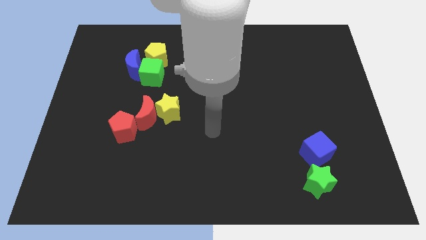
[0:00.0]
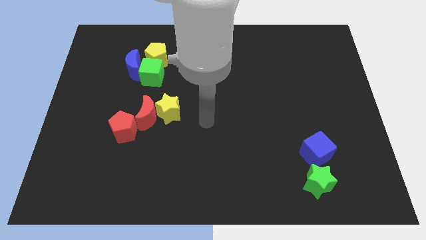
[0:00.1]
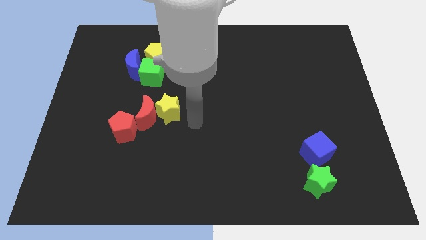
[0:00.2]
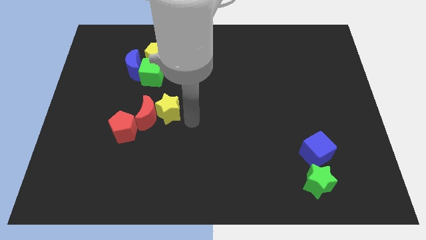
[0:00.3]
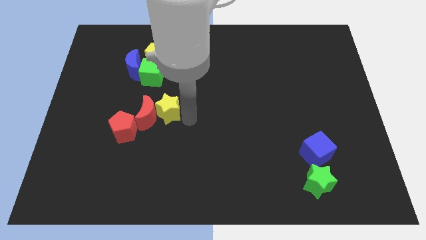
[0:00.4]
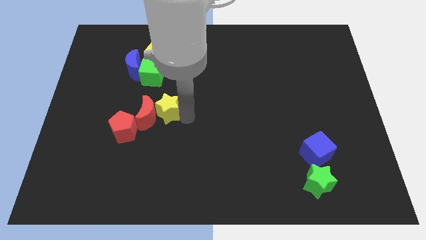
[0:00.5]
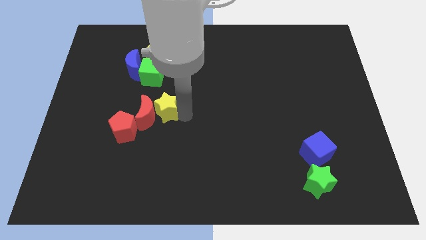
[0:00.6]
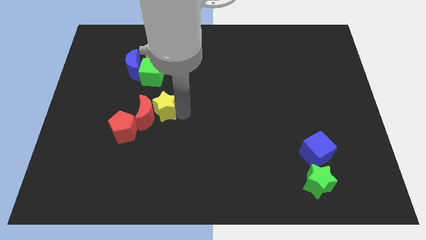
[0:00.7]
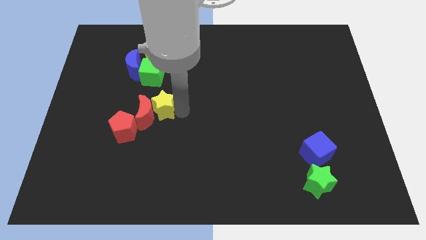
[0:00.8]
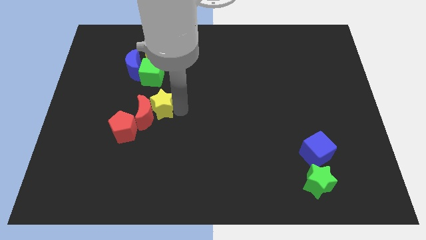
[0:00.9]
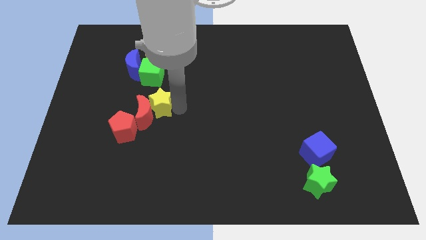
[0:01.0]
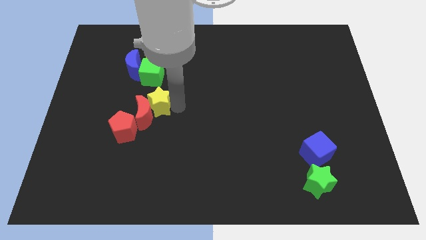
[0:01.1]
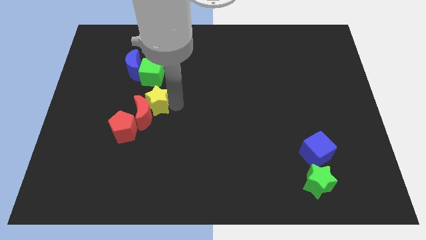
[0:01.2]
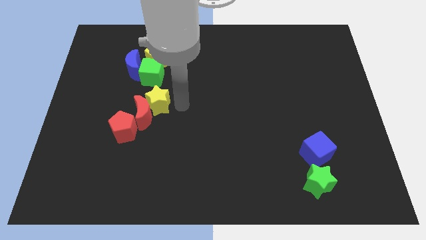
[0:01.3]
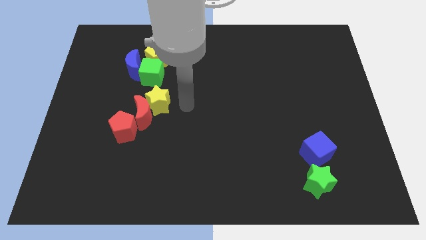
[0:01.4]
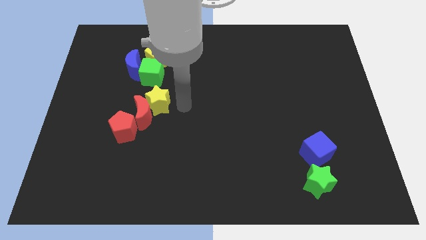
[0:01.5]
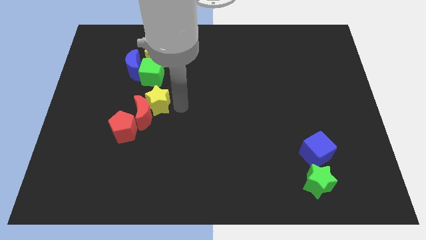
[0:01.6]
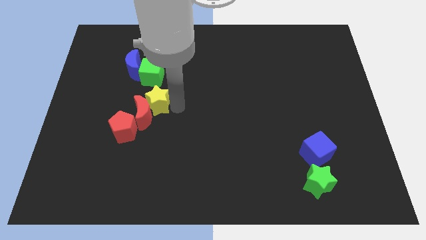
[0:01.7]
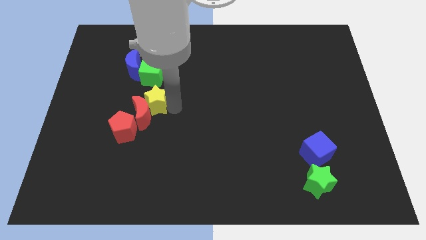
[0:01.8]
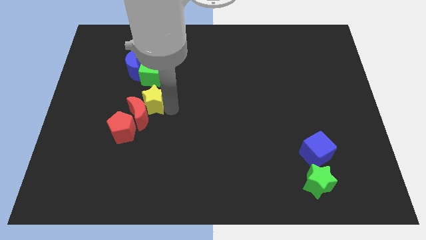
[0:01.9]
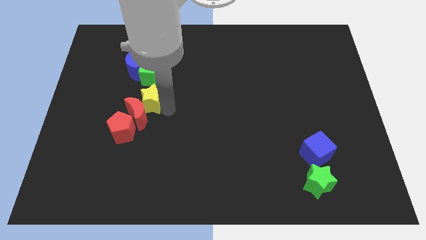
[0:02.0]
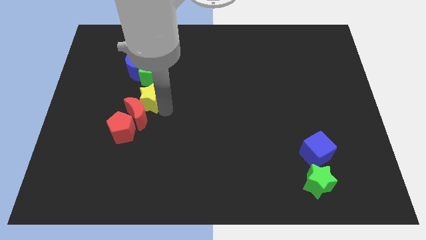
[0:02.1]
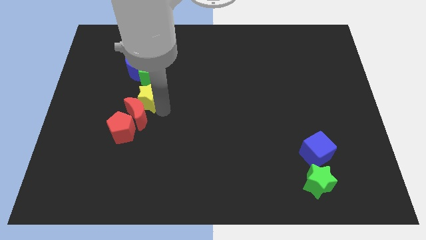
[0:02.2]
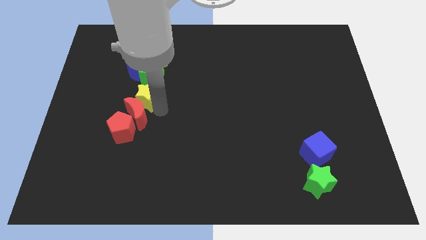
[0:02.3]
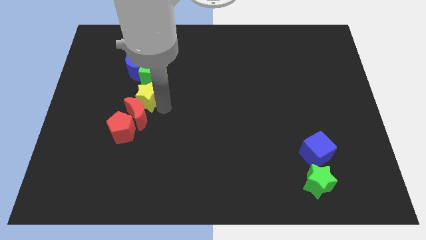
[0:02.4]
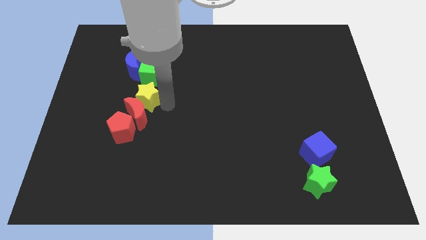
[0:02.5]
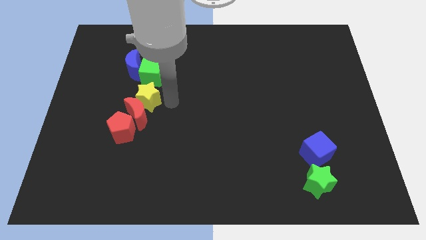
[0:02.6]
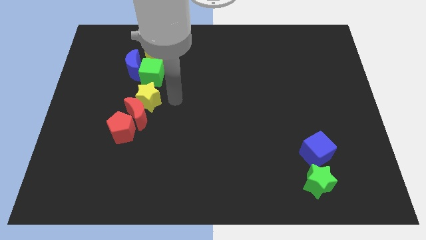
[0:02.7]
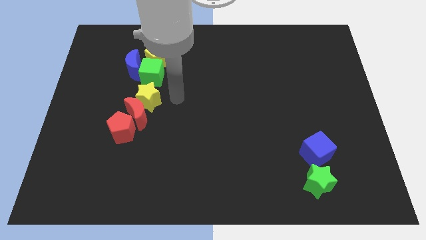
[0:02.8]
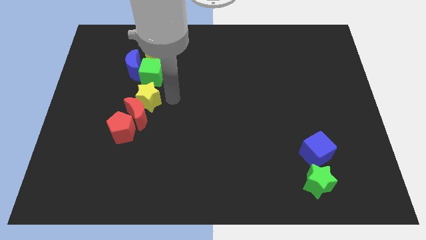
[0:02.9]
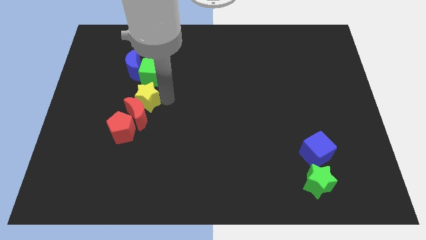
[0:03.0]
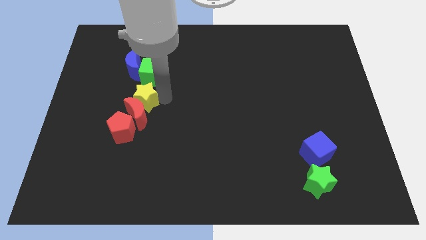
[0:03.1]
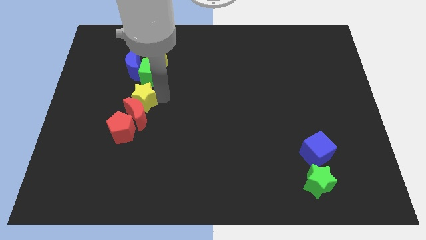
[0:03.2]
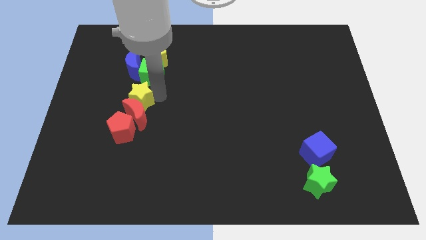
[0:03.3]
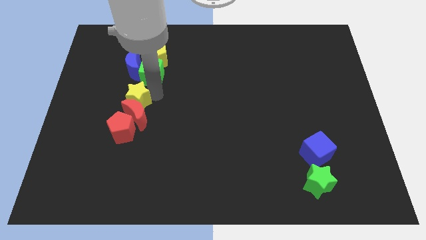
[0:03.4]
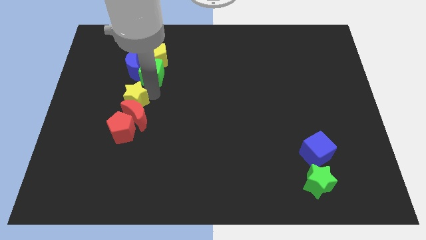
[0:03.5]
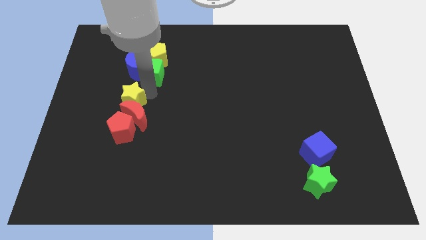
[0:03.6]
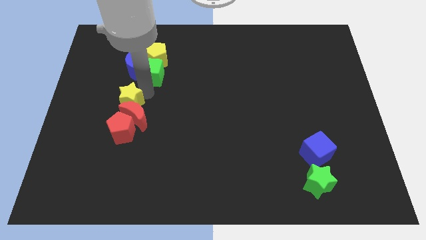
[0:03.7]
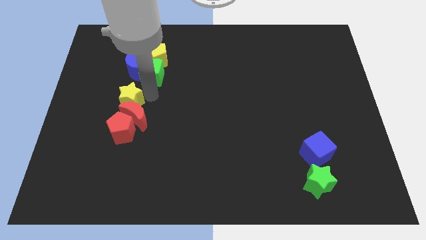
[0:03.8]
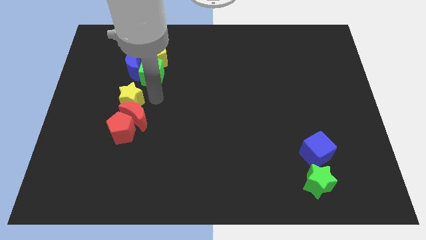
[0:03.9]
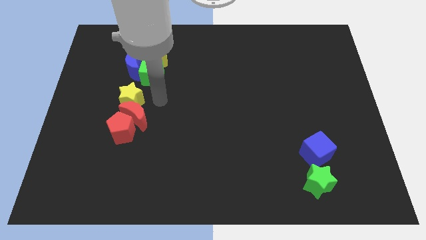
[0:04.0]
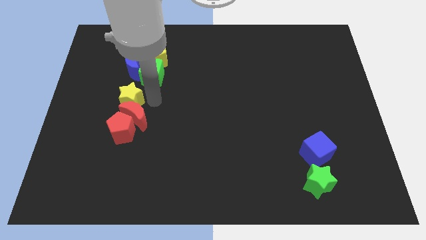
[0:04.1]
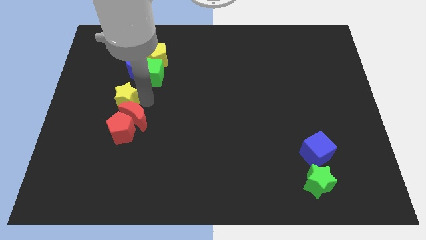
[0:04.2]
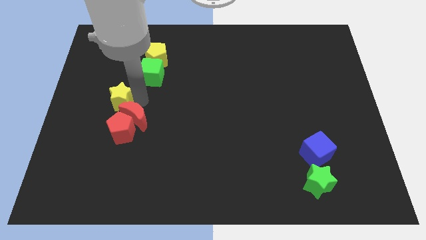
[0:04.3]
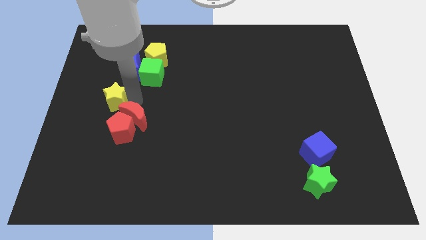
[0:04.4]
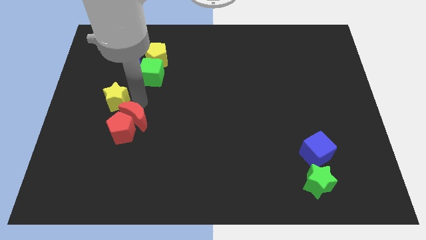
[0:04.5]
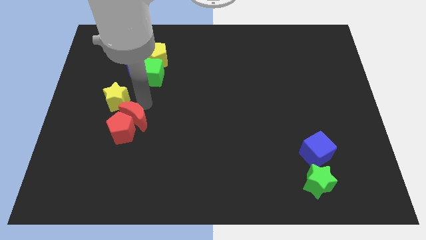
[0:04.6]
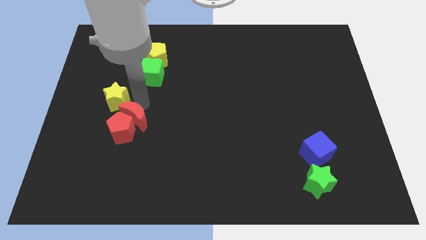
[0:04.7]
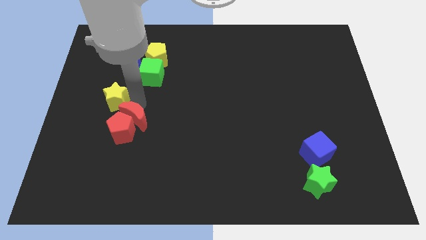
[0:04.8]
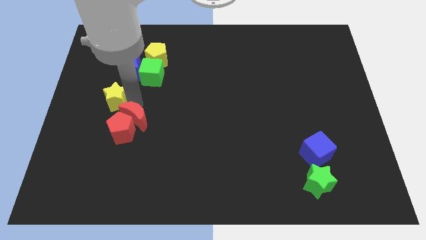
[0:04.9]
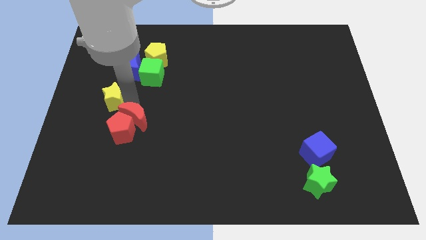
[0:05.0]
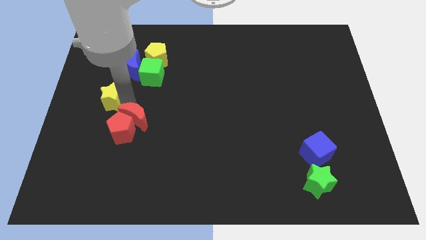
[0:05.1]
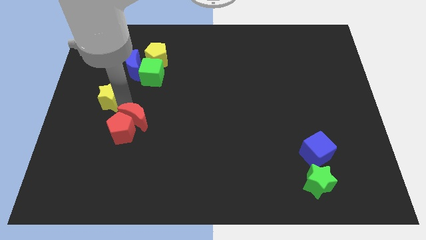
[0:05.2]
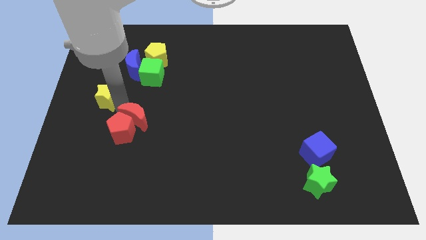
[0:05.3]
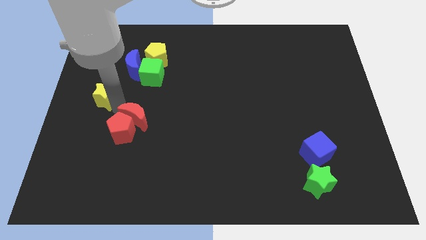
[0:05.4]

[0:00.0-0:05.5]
push the yellow star to the left side of the board

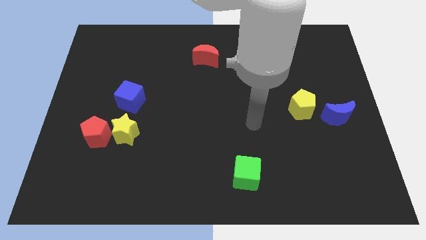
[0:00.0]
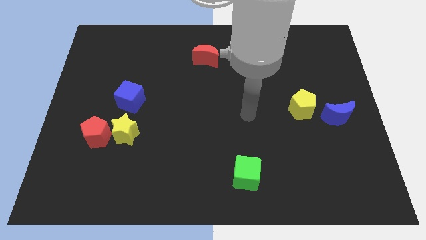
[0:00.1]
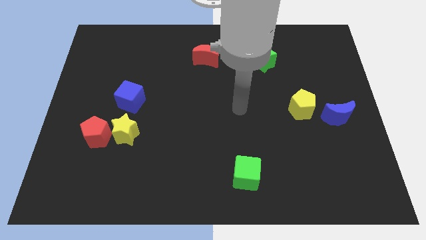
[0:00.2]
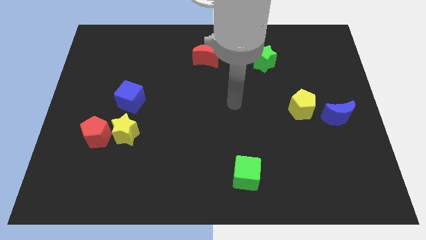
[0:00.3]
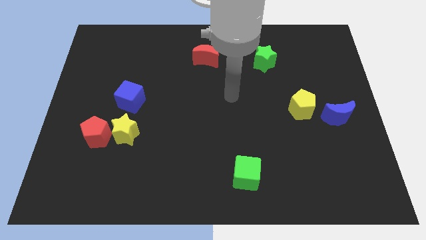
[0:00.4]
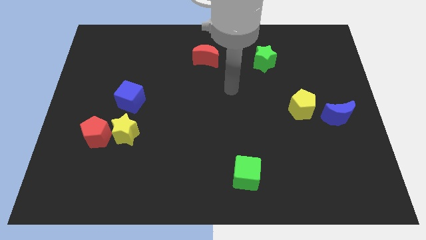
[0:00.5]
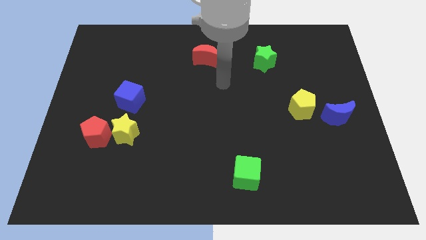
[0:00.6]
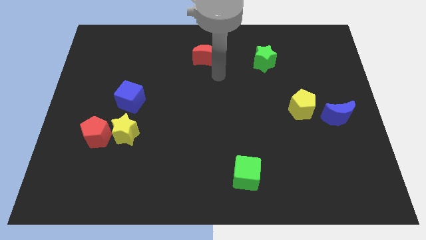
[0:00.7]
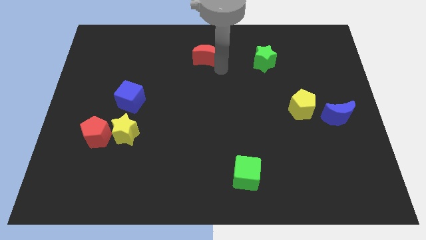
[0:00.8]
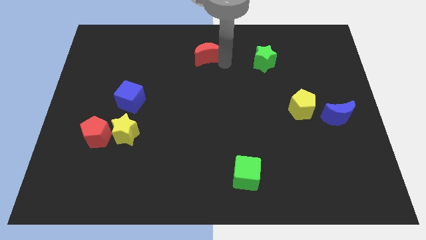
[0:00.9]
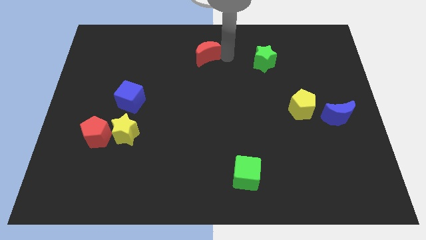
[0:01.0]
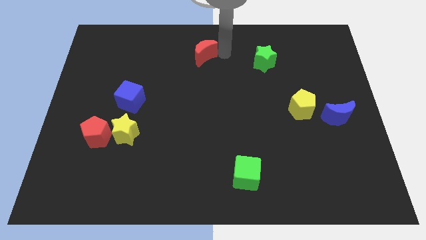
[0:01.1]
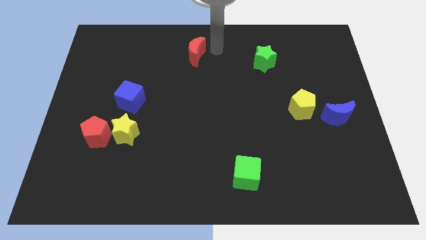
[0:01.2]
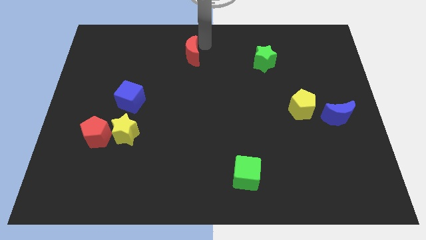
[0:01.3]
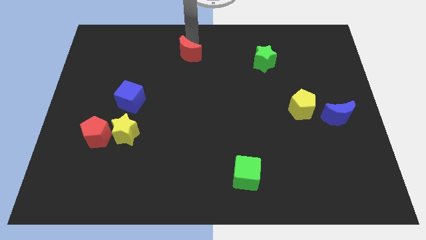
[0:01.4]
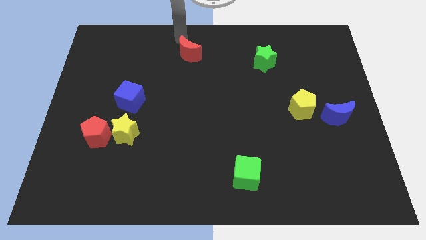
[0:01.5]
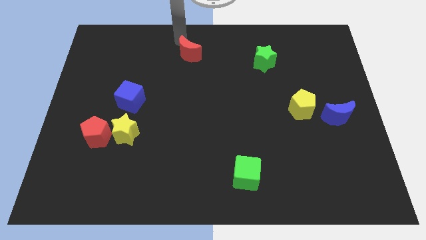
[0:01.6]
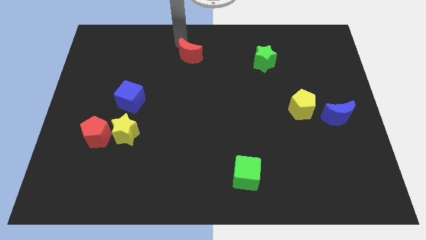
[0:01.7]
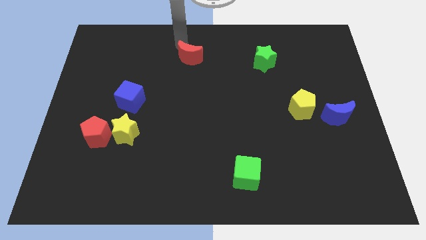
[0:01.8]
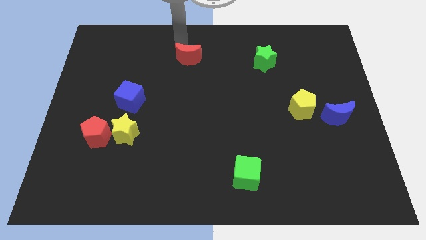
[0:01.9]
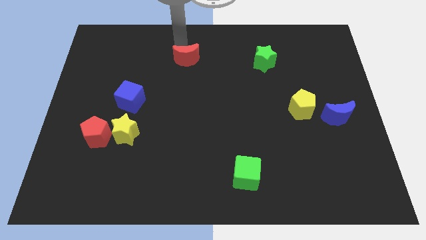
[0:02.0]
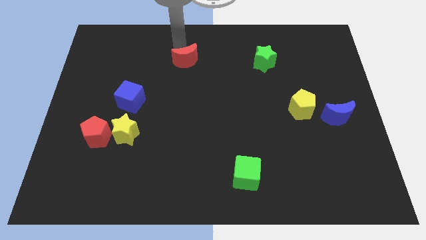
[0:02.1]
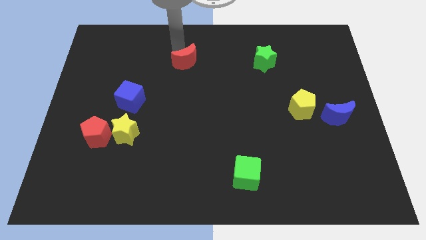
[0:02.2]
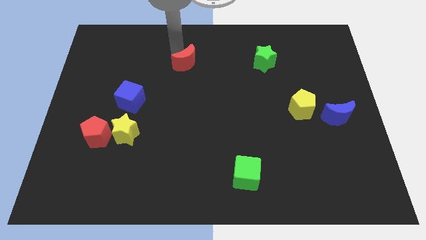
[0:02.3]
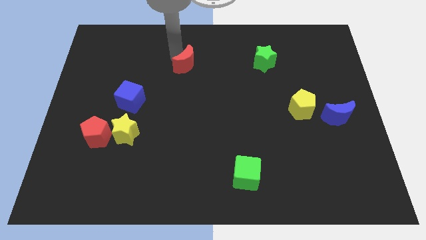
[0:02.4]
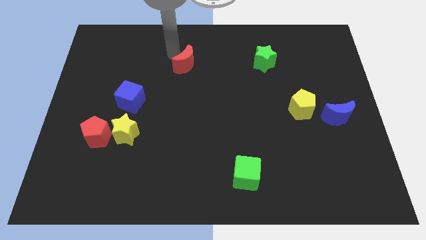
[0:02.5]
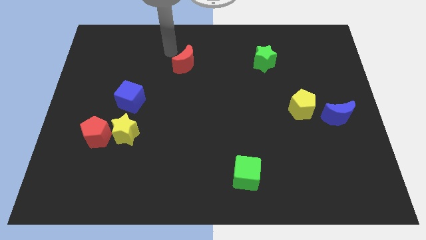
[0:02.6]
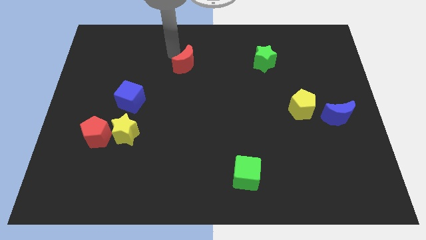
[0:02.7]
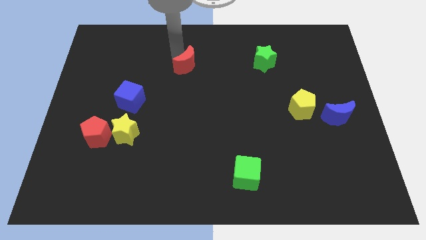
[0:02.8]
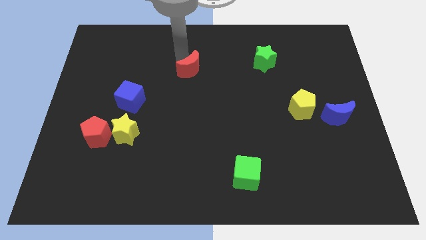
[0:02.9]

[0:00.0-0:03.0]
push the red moon to the middle
